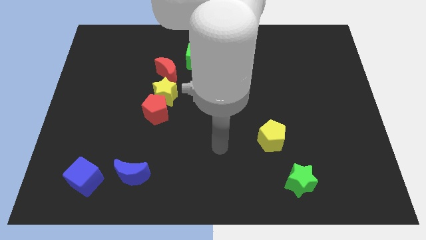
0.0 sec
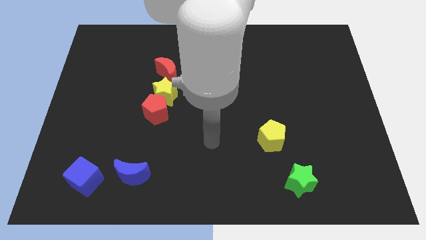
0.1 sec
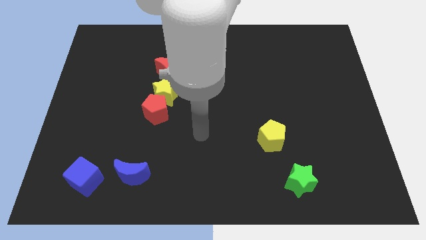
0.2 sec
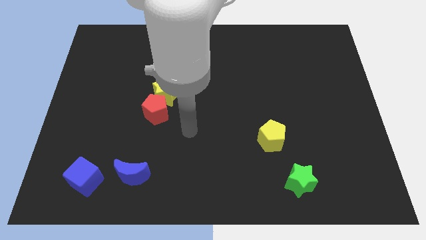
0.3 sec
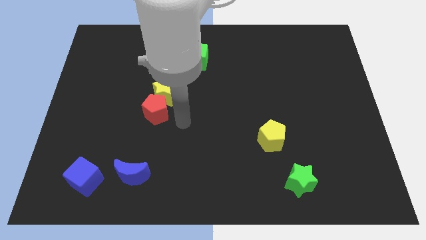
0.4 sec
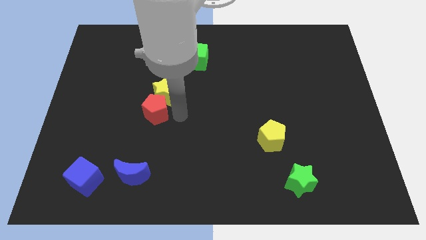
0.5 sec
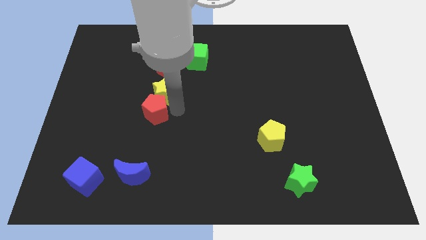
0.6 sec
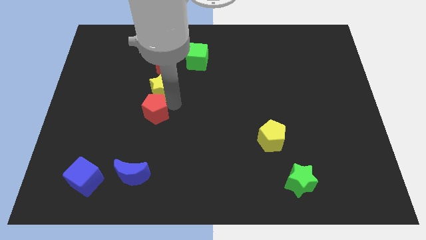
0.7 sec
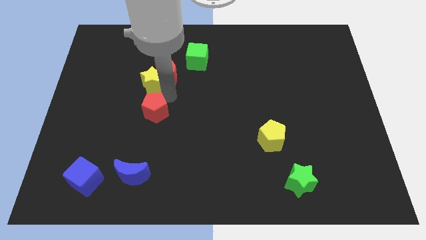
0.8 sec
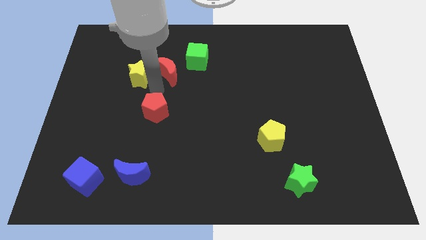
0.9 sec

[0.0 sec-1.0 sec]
separate the red pentagon from the yellow star

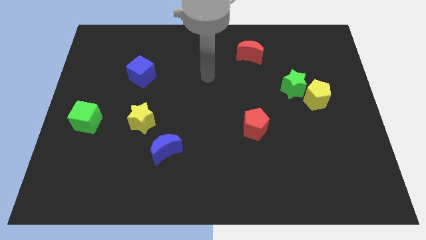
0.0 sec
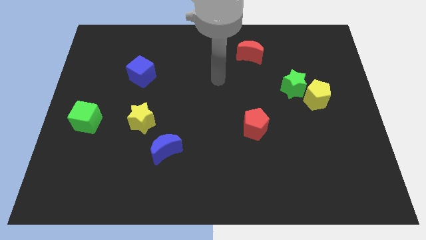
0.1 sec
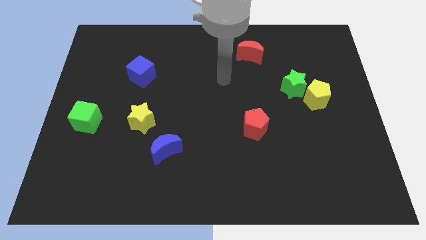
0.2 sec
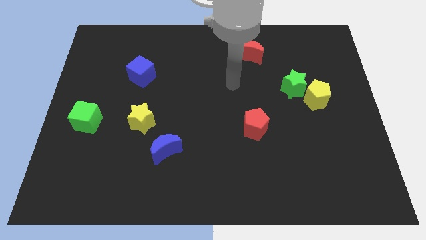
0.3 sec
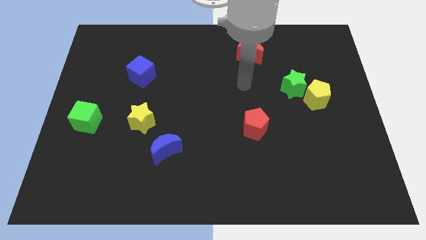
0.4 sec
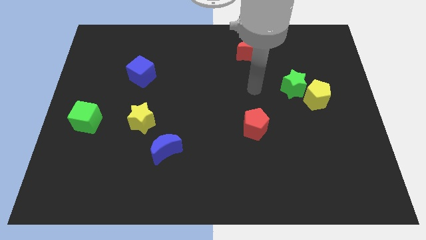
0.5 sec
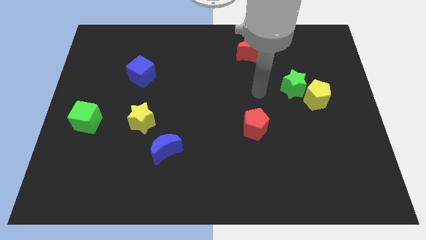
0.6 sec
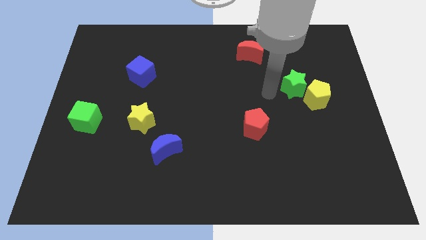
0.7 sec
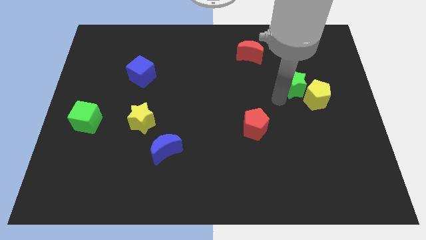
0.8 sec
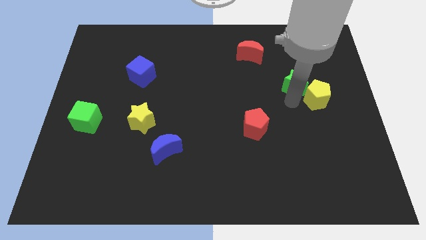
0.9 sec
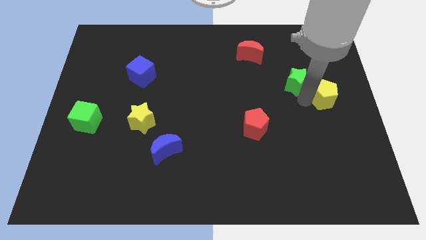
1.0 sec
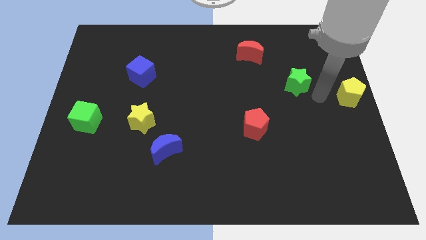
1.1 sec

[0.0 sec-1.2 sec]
pull the green star apart from the yellow pentagon

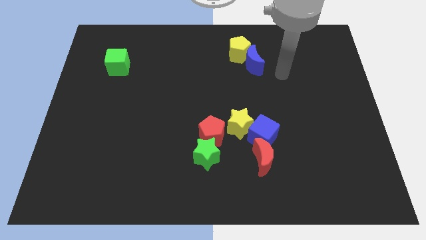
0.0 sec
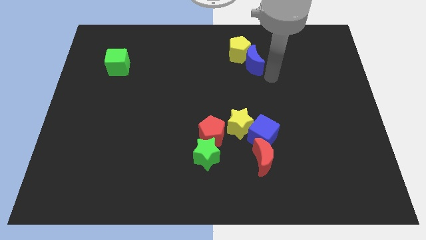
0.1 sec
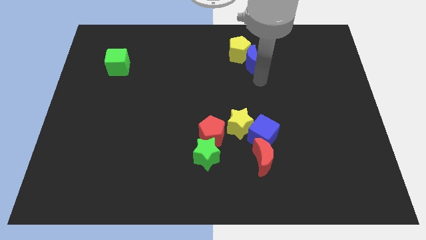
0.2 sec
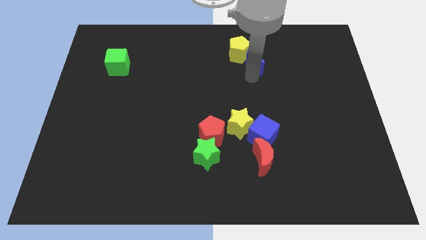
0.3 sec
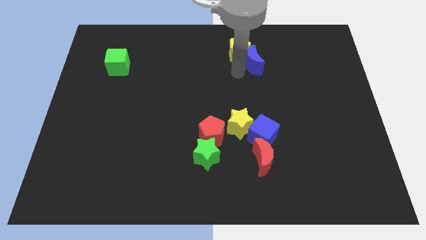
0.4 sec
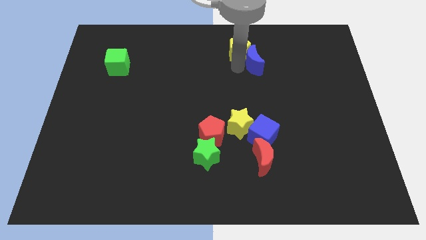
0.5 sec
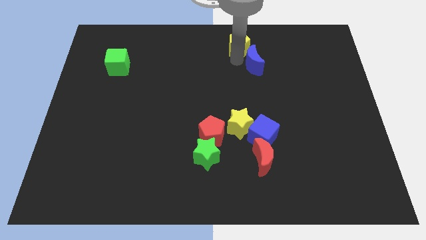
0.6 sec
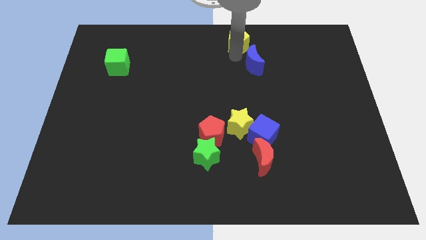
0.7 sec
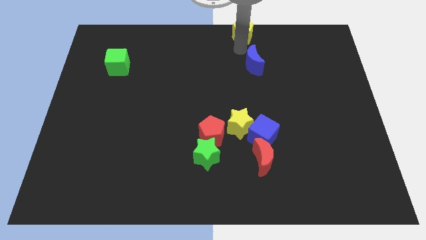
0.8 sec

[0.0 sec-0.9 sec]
separate the blue moon from the yellow pentagon

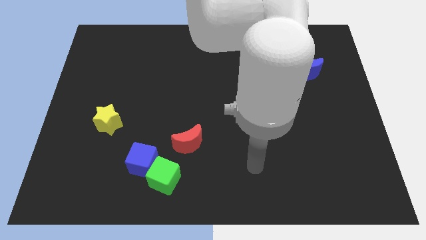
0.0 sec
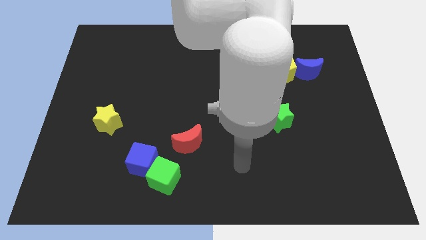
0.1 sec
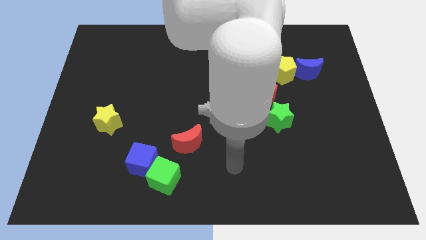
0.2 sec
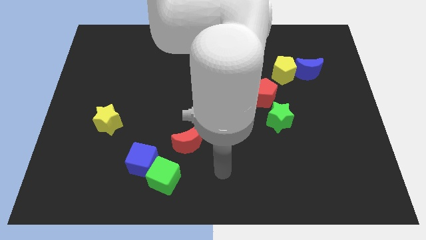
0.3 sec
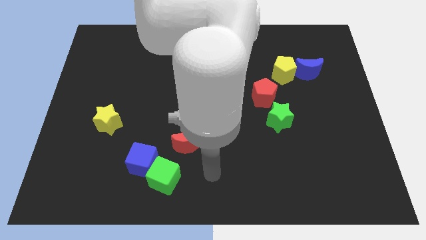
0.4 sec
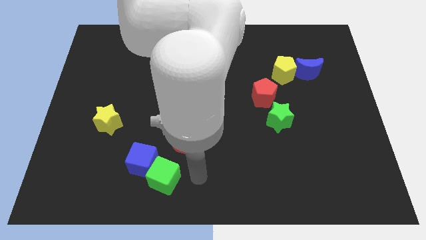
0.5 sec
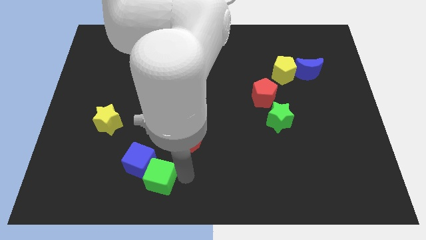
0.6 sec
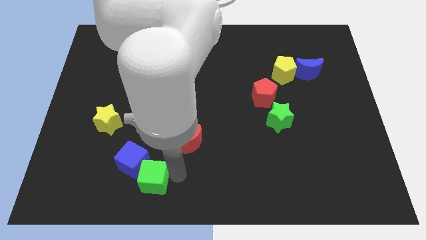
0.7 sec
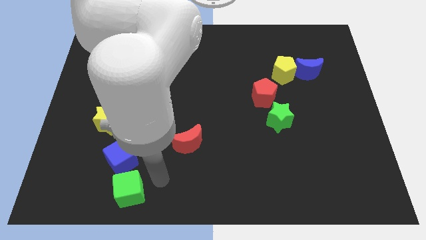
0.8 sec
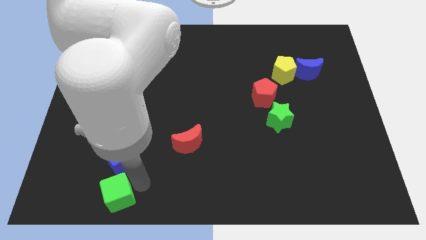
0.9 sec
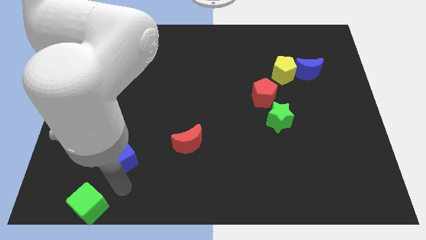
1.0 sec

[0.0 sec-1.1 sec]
pull the blue cube apart from the green cube

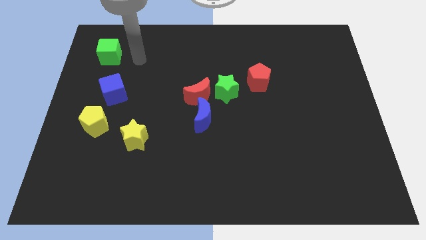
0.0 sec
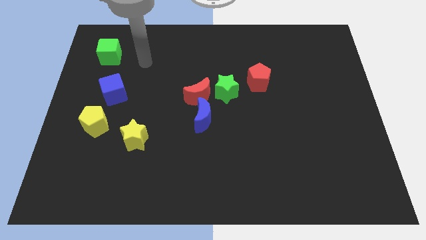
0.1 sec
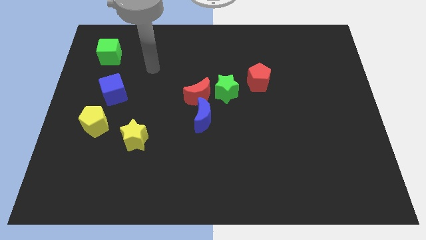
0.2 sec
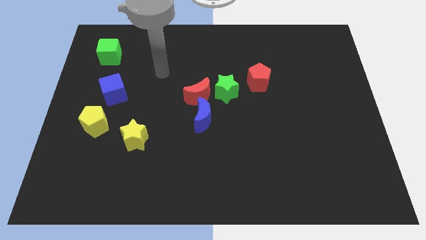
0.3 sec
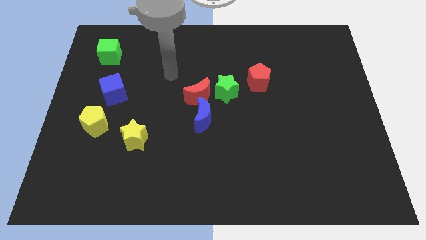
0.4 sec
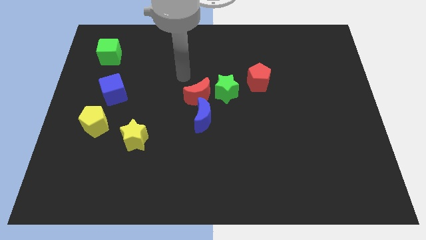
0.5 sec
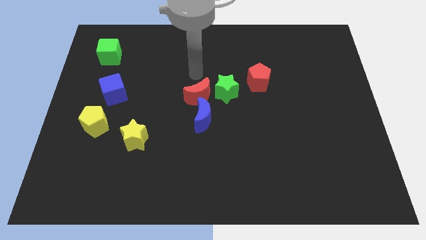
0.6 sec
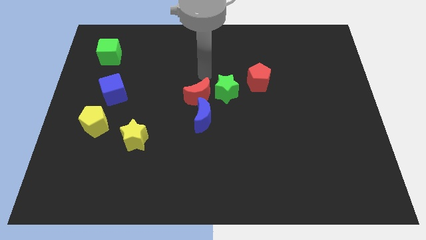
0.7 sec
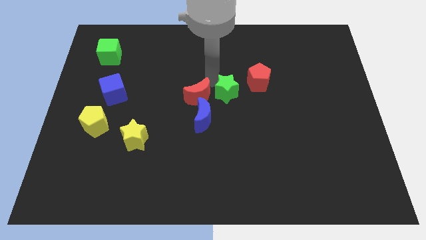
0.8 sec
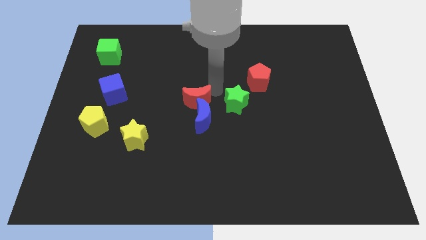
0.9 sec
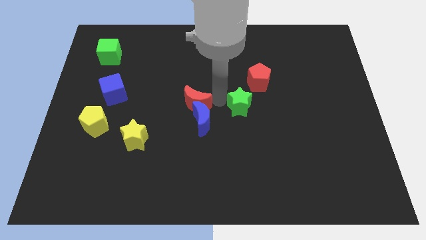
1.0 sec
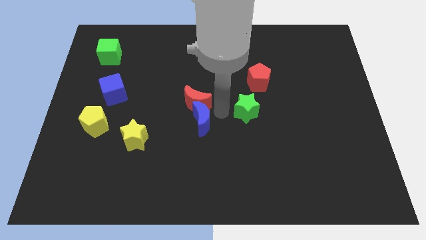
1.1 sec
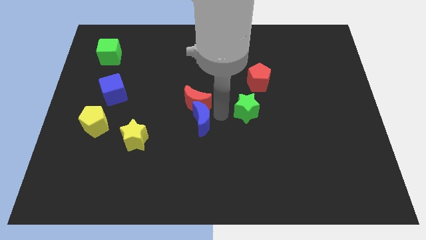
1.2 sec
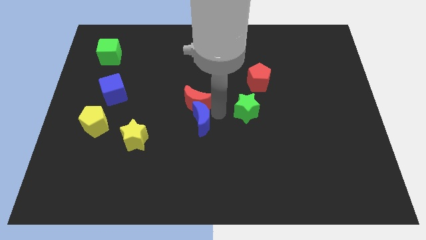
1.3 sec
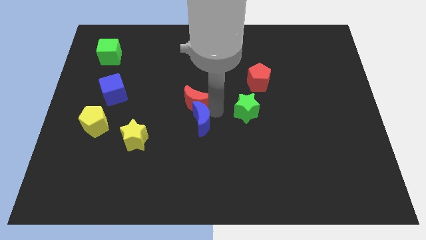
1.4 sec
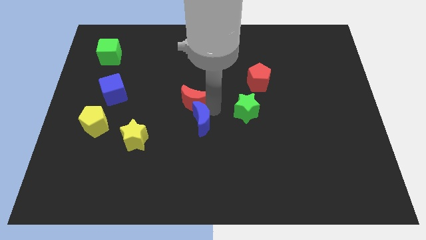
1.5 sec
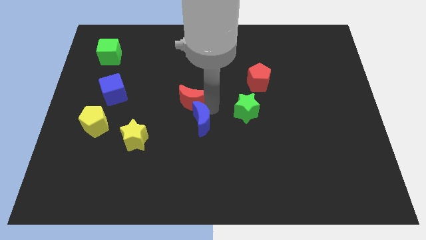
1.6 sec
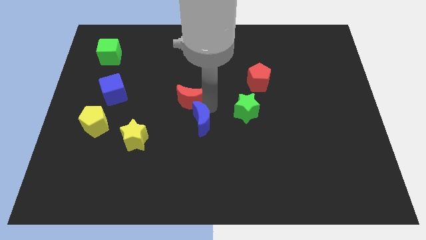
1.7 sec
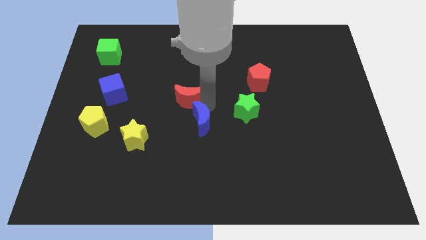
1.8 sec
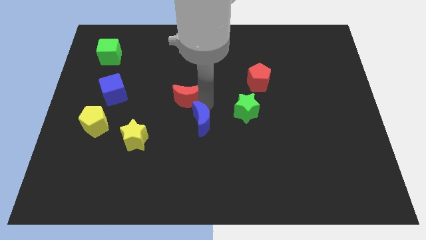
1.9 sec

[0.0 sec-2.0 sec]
separate the red moon from the blue moon and green star

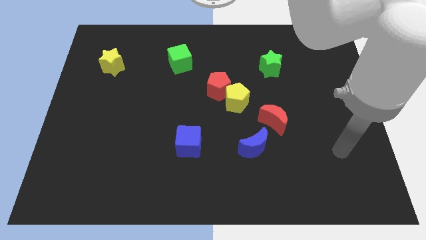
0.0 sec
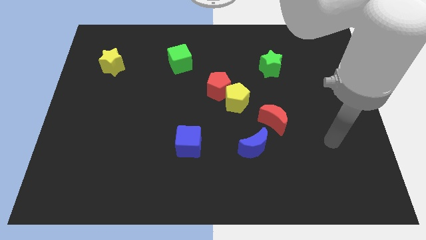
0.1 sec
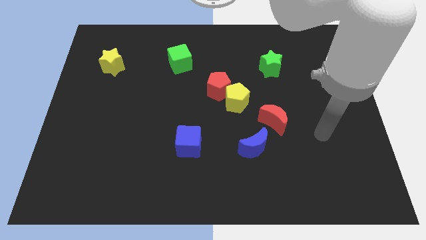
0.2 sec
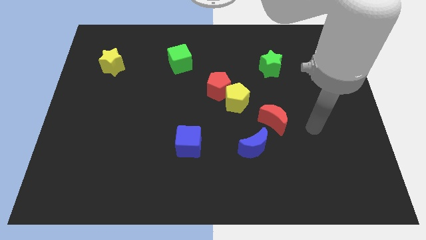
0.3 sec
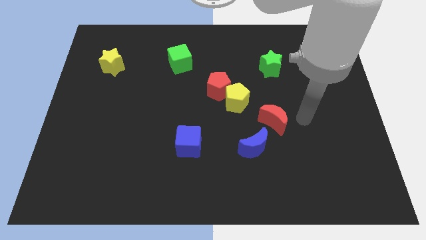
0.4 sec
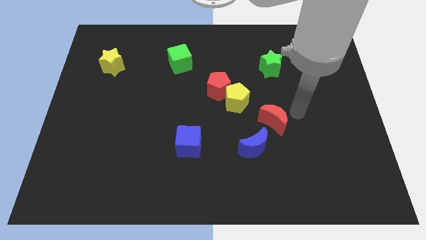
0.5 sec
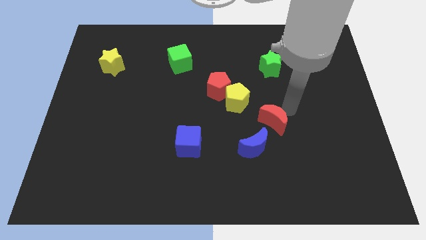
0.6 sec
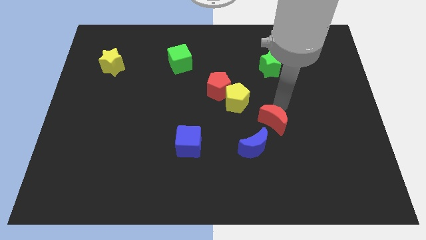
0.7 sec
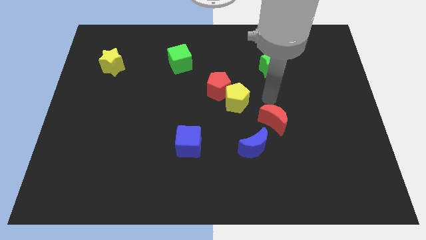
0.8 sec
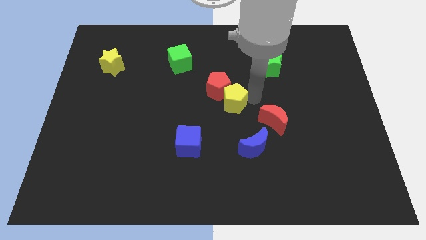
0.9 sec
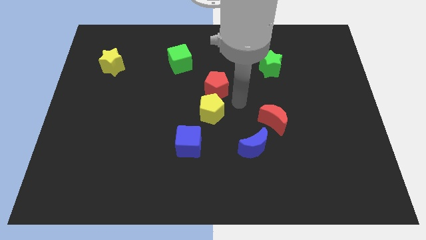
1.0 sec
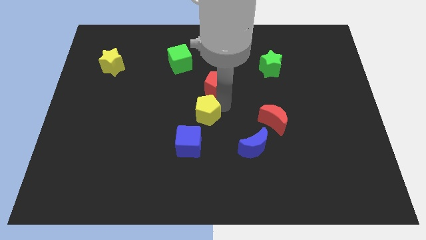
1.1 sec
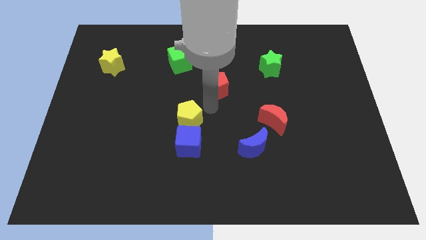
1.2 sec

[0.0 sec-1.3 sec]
move the red pentagon away from the yellow pentagon

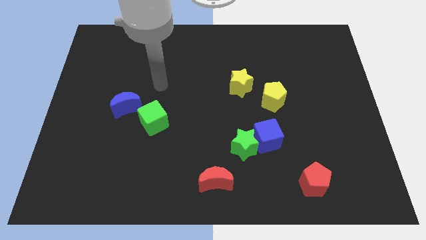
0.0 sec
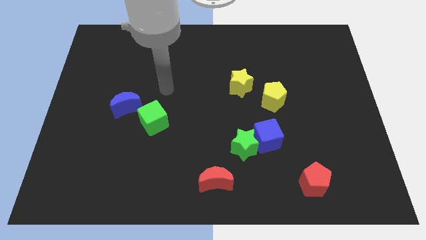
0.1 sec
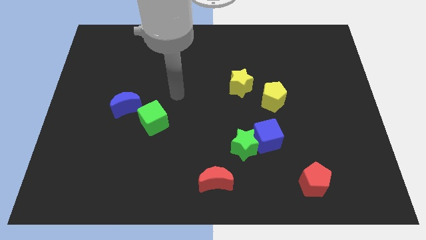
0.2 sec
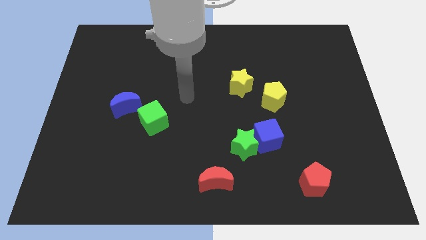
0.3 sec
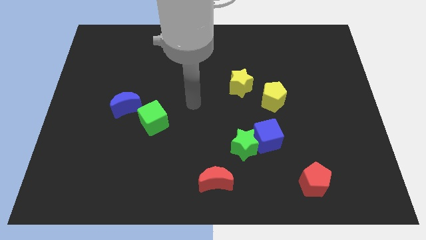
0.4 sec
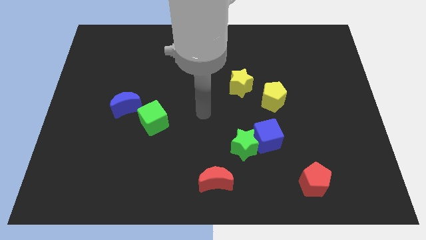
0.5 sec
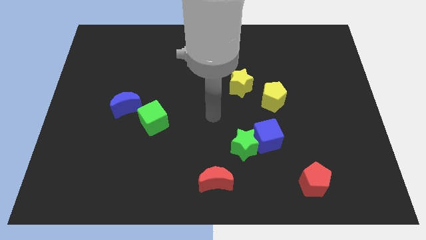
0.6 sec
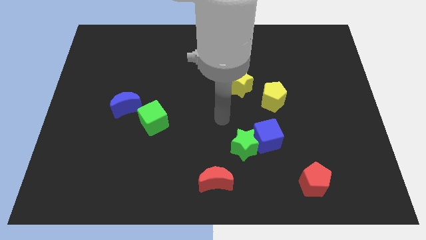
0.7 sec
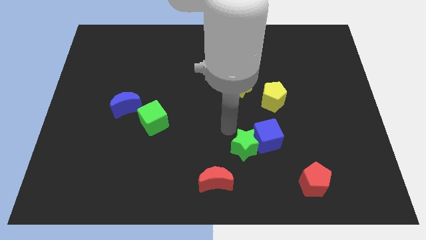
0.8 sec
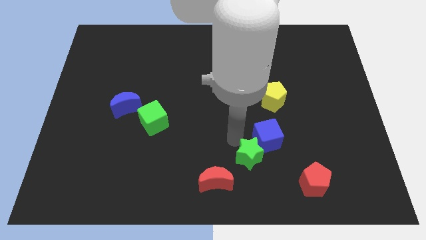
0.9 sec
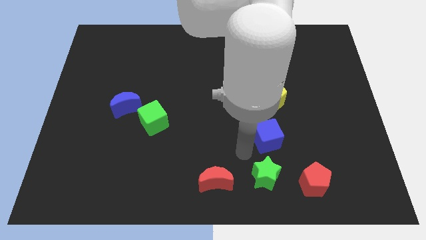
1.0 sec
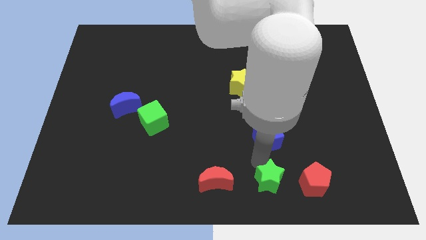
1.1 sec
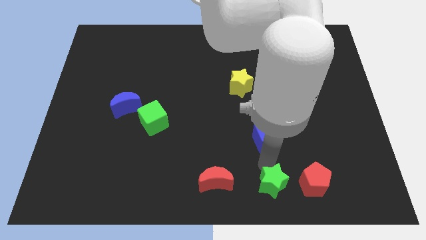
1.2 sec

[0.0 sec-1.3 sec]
pull the blue cube apart from the green star

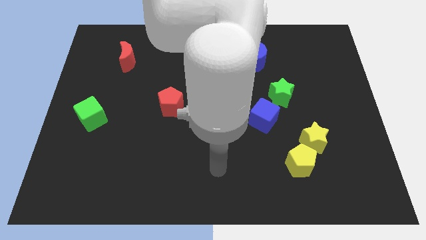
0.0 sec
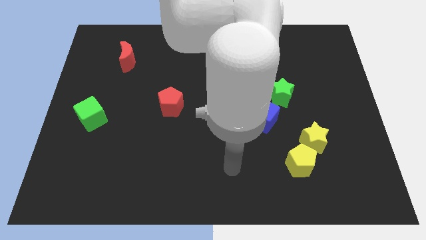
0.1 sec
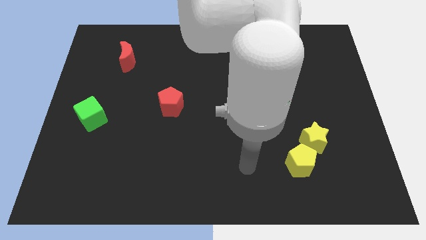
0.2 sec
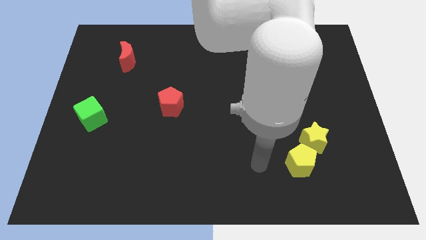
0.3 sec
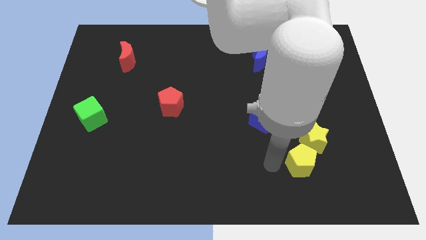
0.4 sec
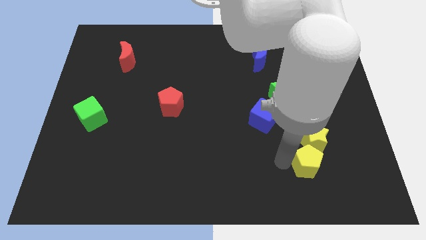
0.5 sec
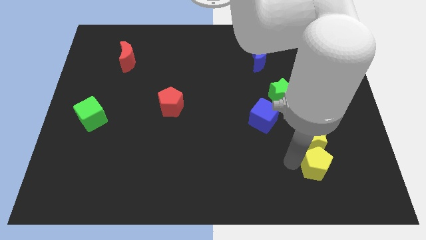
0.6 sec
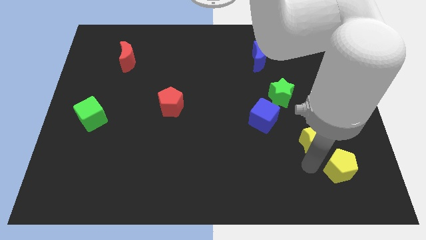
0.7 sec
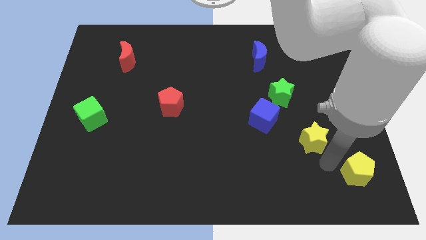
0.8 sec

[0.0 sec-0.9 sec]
pull the yellow star apart from the yellow pentagon
